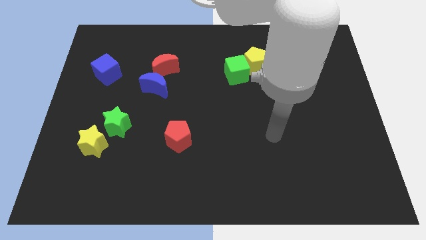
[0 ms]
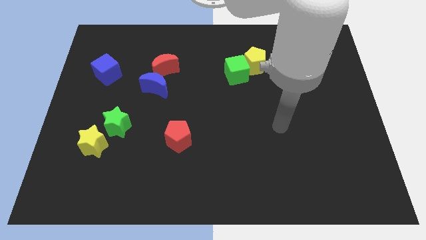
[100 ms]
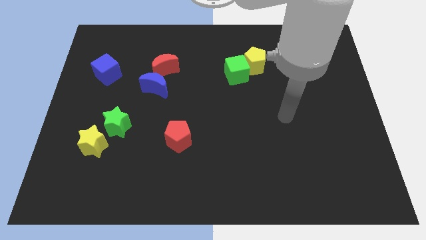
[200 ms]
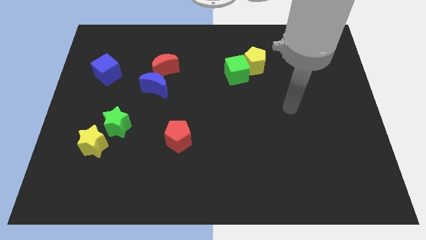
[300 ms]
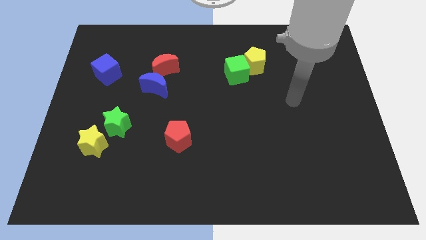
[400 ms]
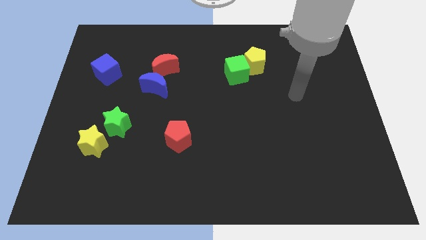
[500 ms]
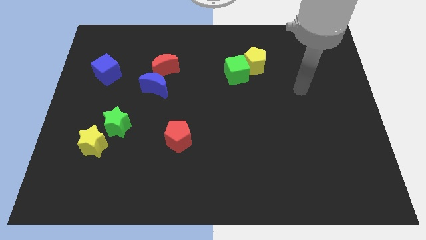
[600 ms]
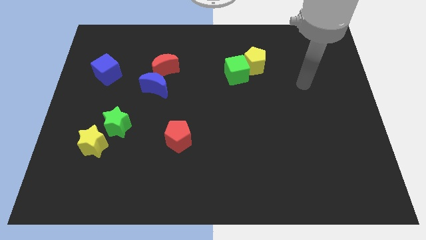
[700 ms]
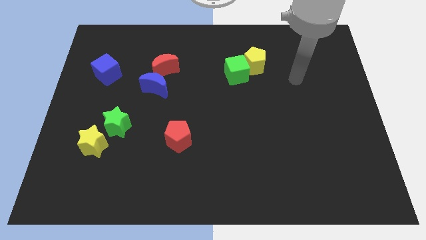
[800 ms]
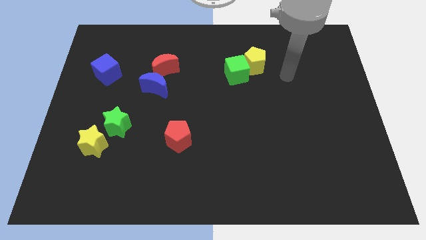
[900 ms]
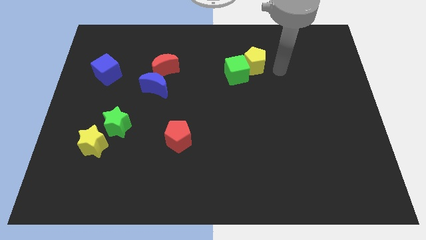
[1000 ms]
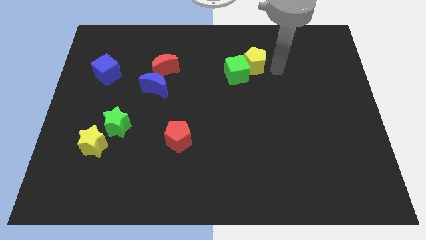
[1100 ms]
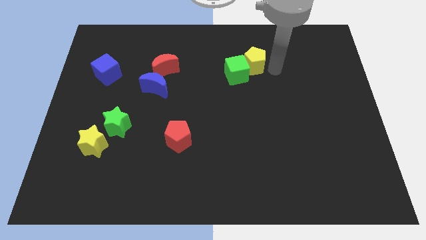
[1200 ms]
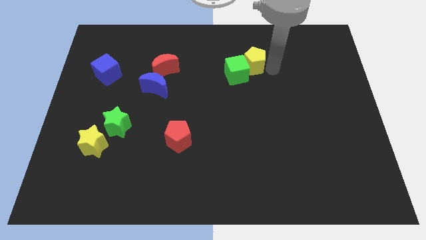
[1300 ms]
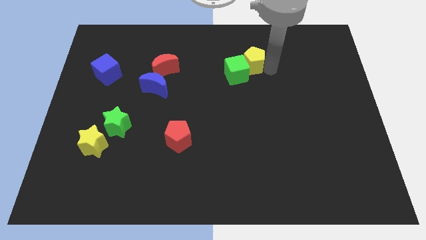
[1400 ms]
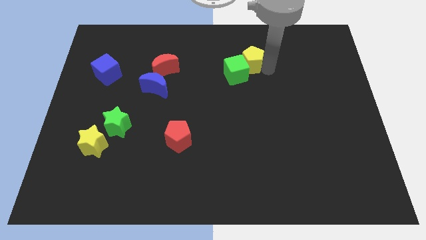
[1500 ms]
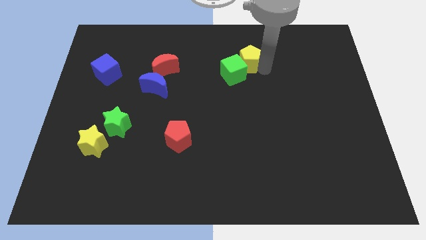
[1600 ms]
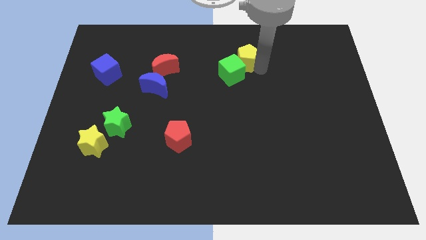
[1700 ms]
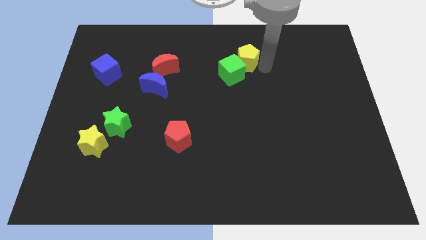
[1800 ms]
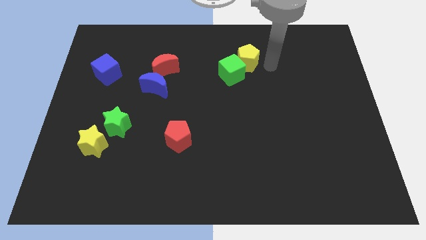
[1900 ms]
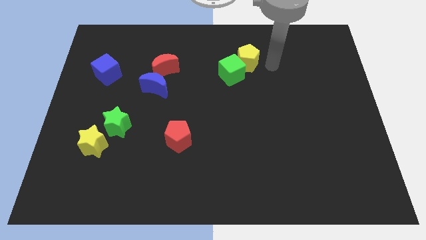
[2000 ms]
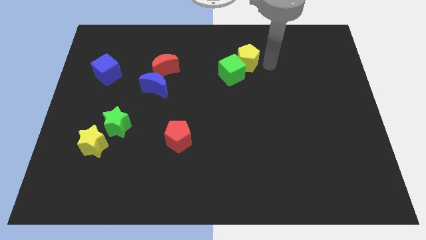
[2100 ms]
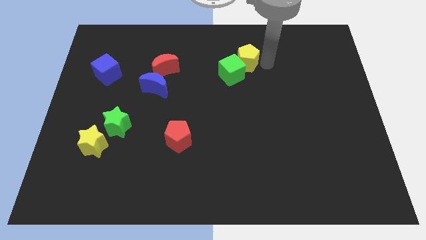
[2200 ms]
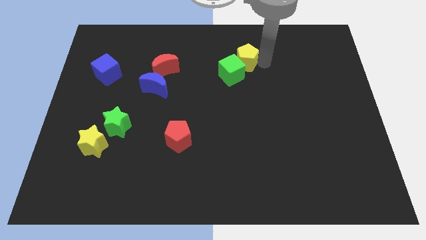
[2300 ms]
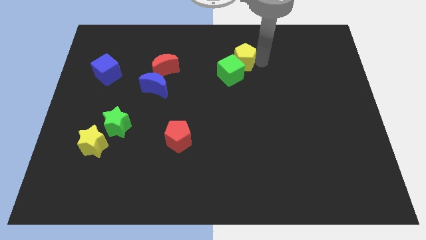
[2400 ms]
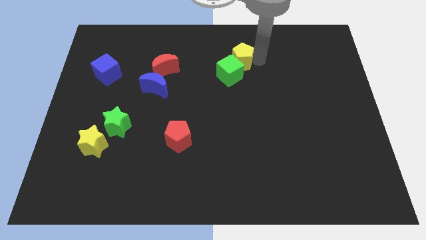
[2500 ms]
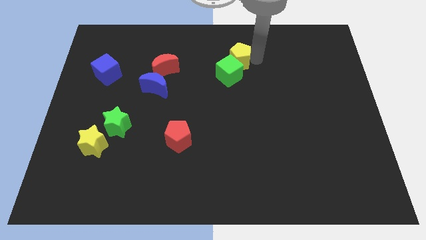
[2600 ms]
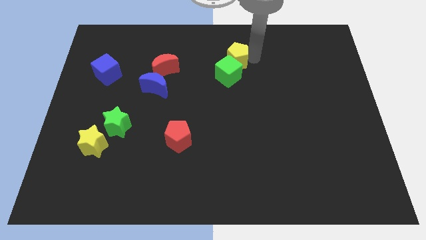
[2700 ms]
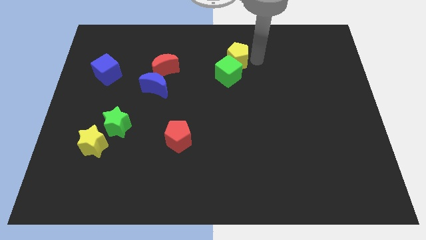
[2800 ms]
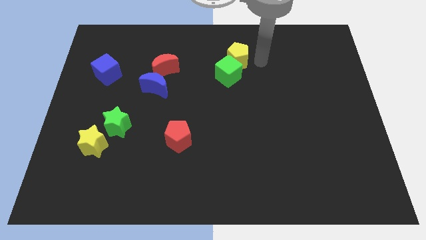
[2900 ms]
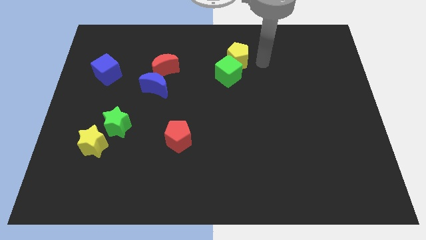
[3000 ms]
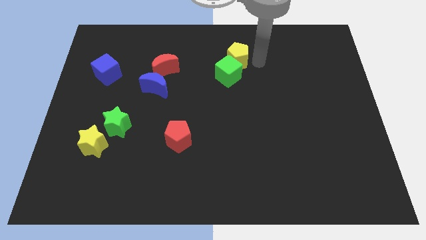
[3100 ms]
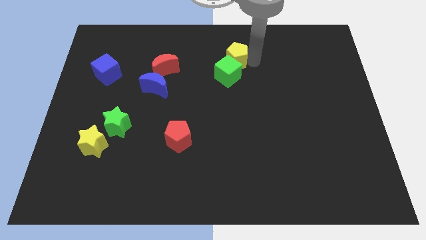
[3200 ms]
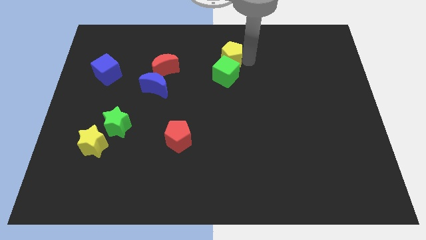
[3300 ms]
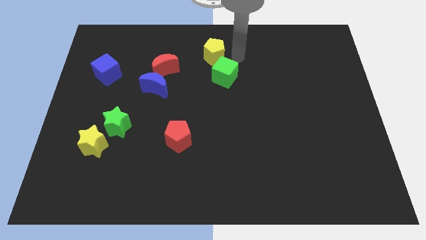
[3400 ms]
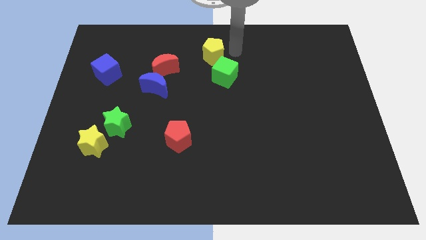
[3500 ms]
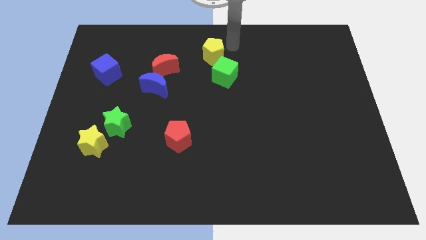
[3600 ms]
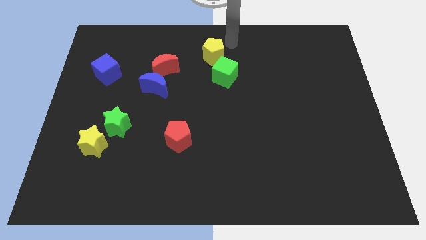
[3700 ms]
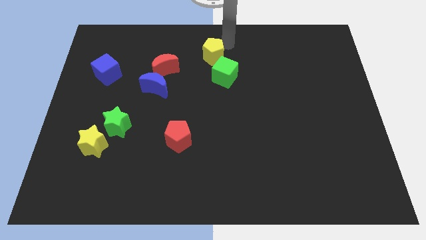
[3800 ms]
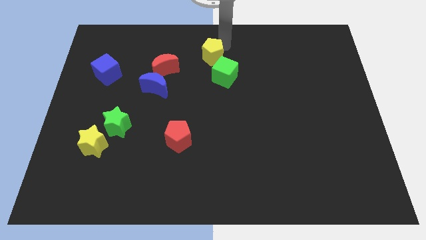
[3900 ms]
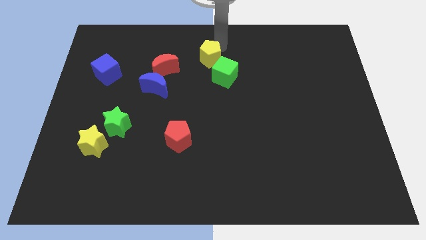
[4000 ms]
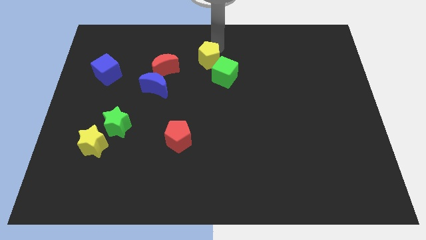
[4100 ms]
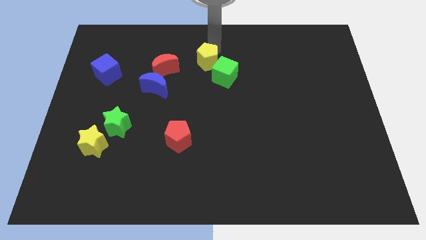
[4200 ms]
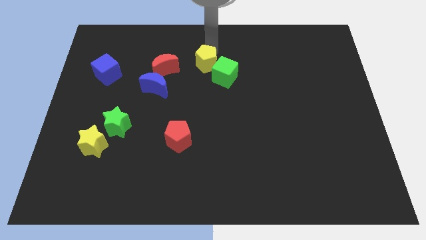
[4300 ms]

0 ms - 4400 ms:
put the yellow pentagon left of the green cube

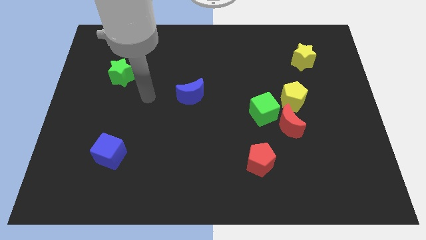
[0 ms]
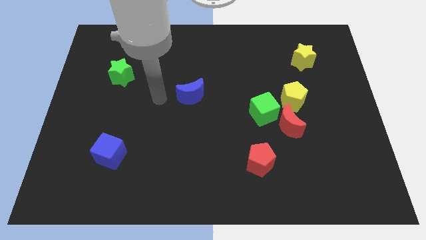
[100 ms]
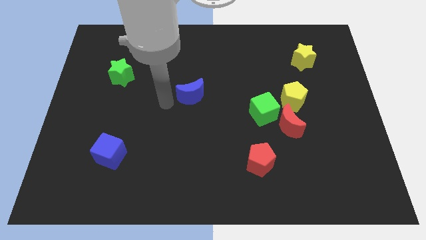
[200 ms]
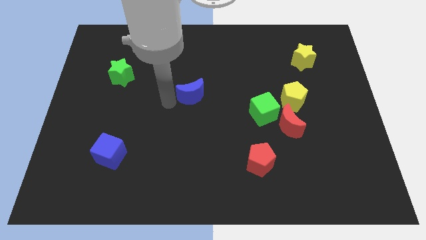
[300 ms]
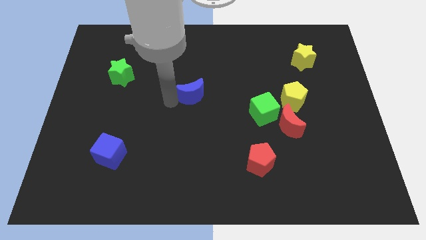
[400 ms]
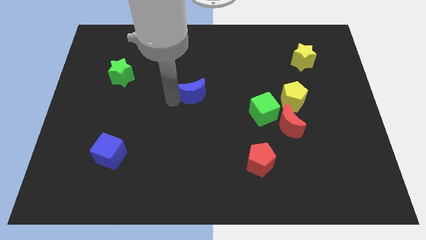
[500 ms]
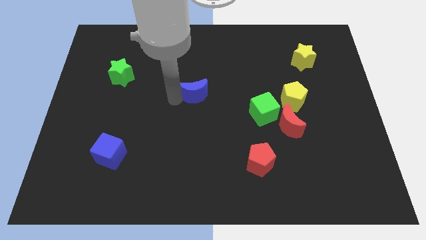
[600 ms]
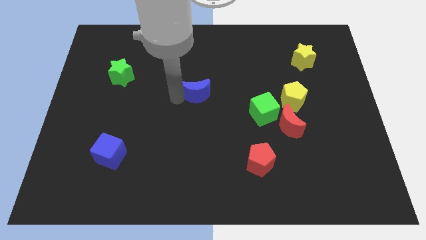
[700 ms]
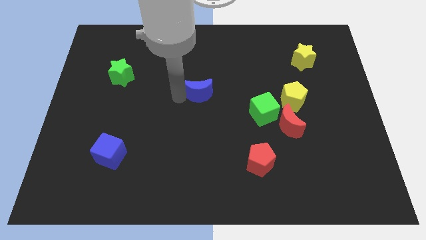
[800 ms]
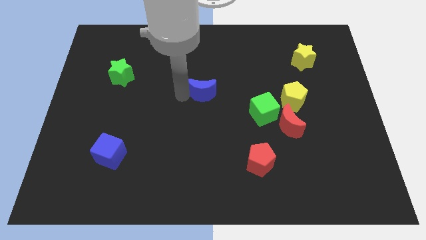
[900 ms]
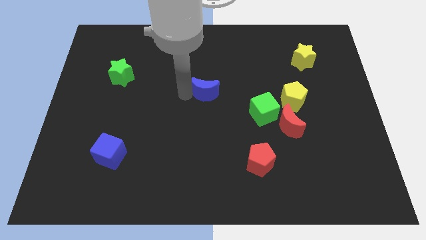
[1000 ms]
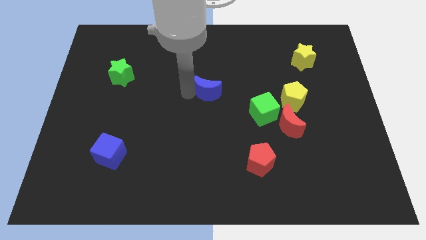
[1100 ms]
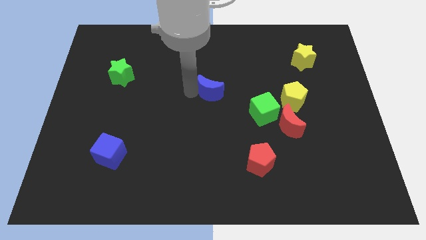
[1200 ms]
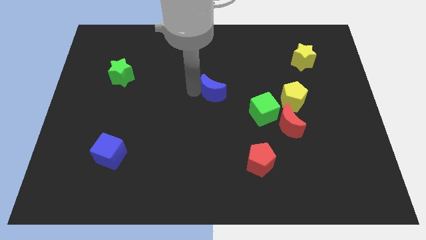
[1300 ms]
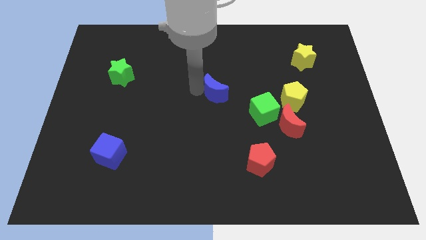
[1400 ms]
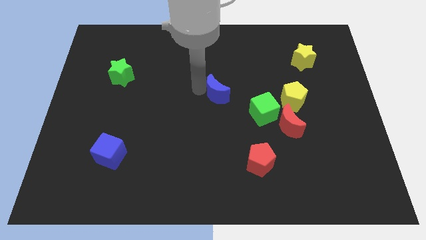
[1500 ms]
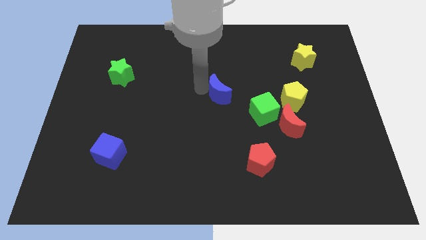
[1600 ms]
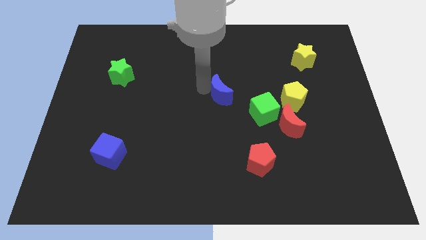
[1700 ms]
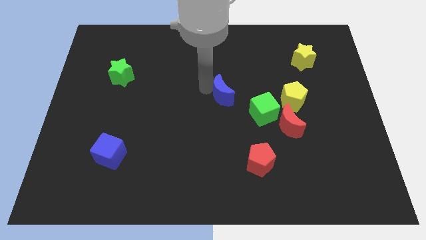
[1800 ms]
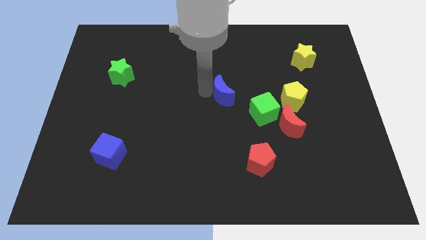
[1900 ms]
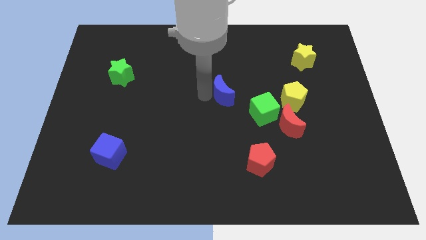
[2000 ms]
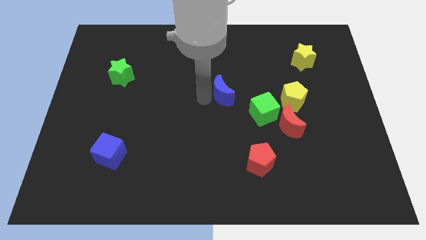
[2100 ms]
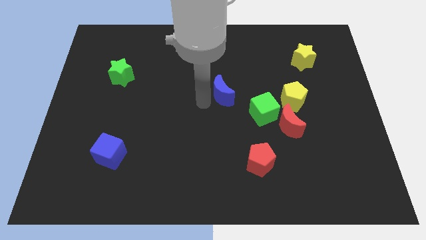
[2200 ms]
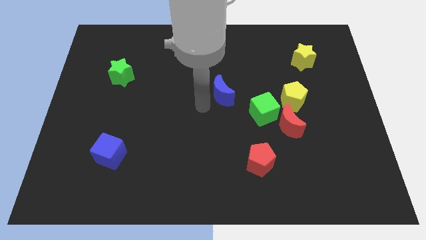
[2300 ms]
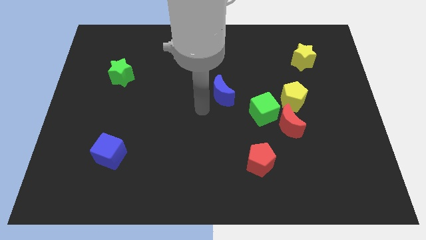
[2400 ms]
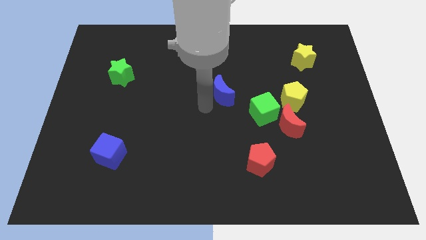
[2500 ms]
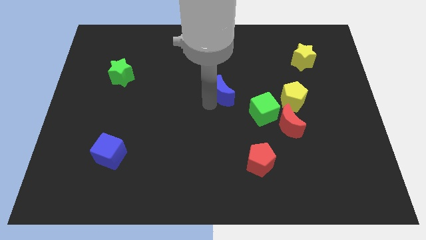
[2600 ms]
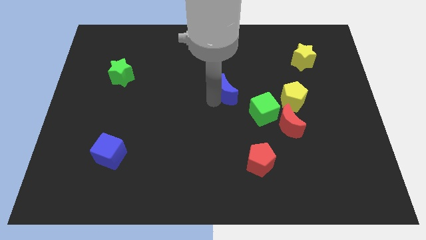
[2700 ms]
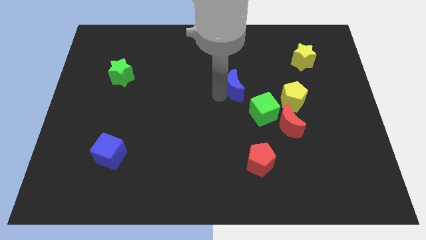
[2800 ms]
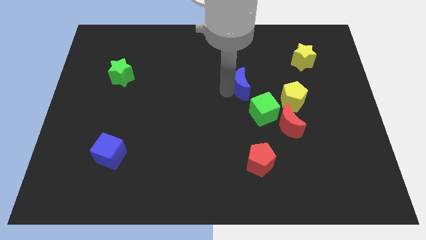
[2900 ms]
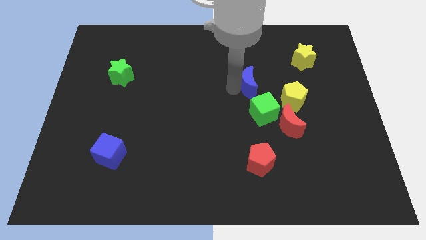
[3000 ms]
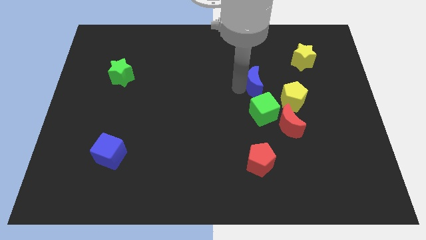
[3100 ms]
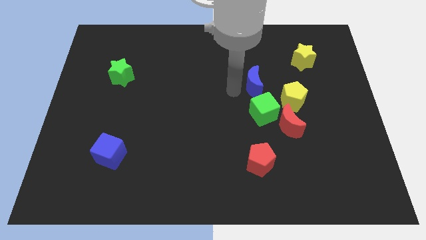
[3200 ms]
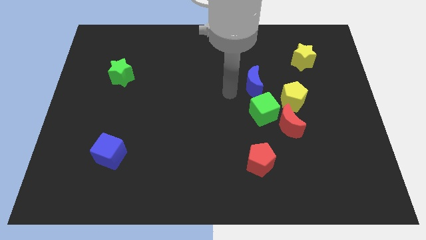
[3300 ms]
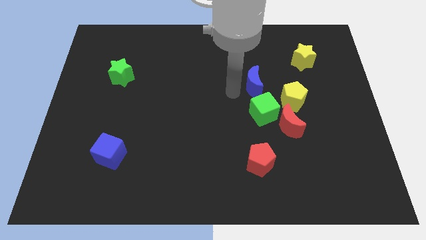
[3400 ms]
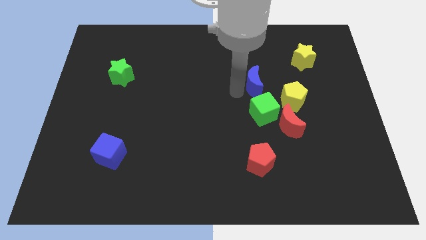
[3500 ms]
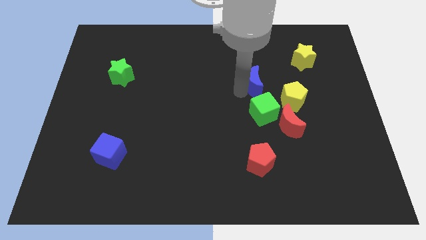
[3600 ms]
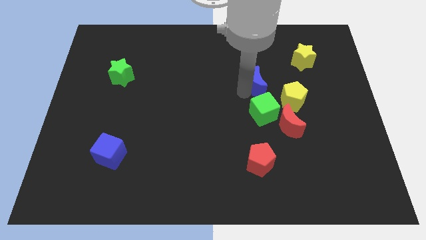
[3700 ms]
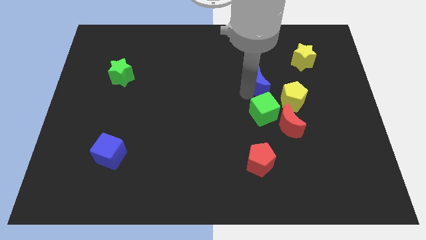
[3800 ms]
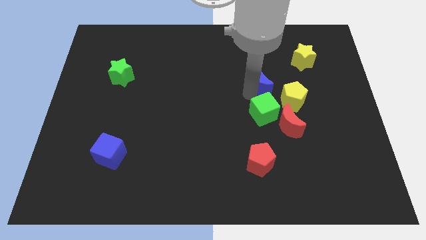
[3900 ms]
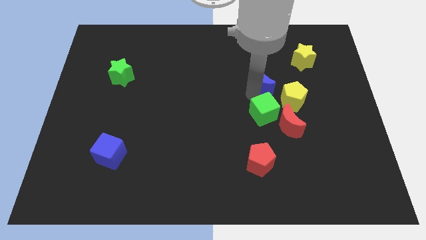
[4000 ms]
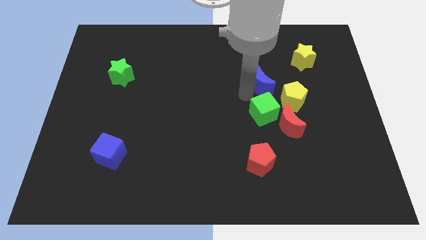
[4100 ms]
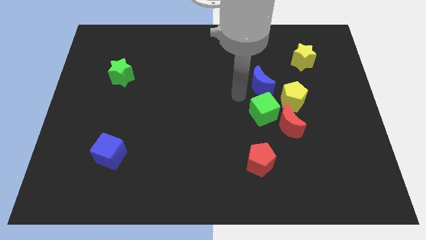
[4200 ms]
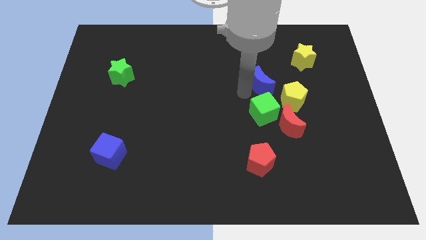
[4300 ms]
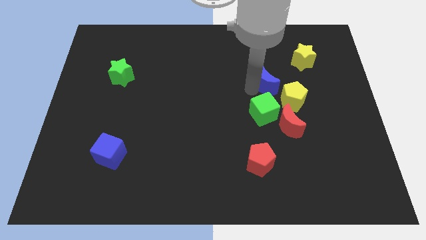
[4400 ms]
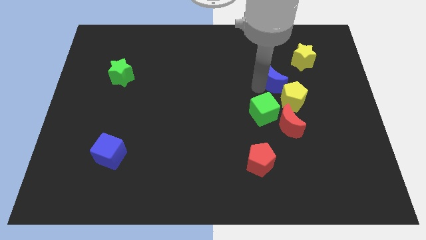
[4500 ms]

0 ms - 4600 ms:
put the blue moon to the bottom left side of the yellow star
